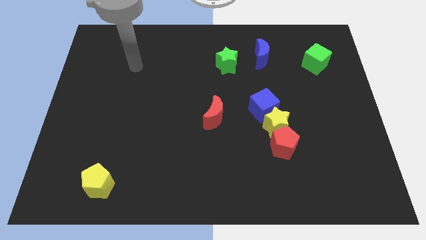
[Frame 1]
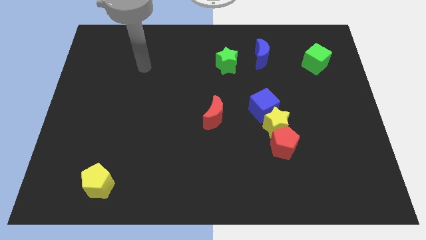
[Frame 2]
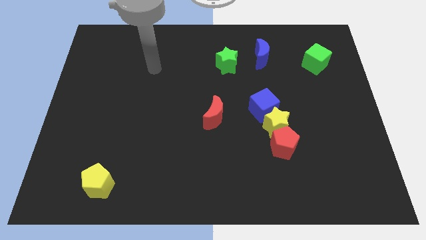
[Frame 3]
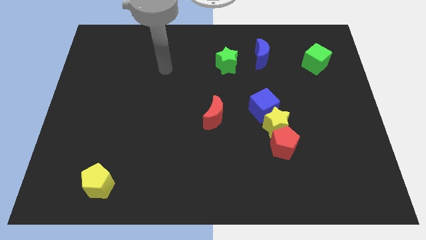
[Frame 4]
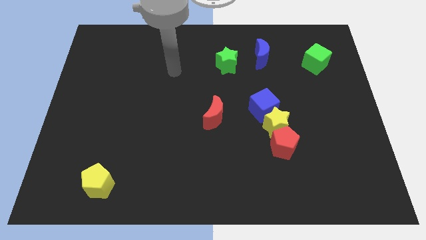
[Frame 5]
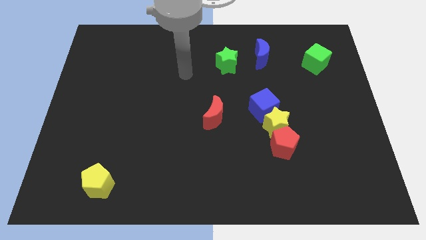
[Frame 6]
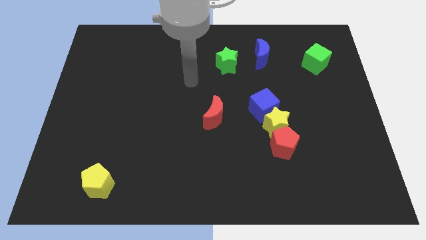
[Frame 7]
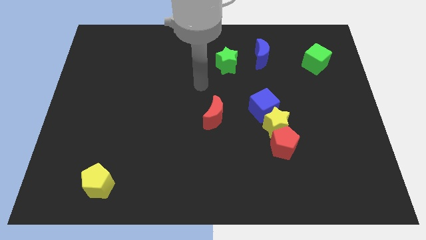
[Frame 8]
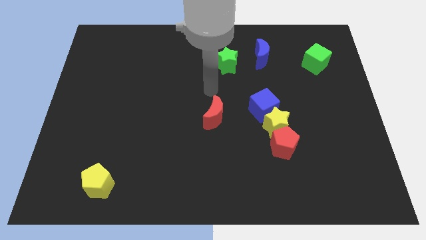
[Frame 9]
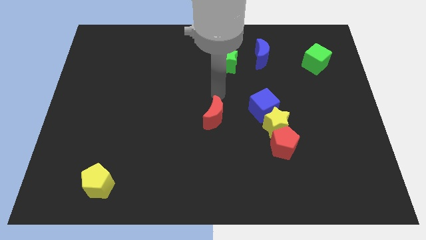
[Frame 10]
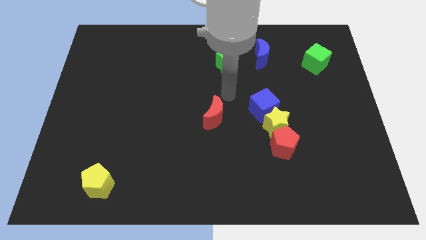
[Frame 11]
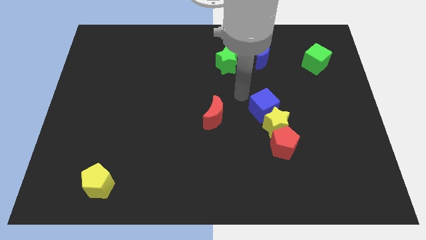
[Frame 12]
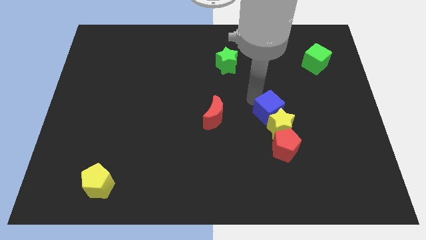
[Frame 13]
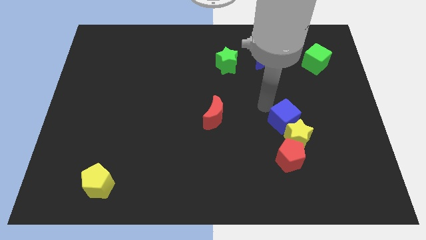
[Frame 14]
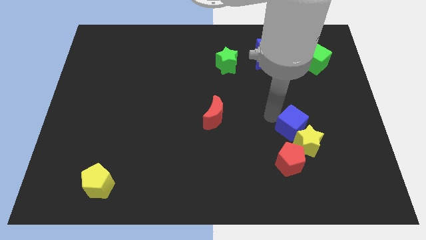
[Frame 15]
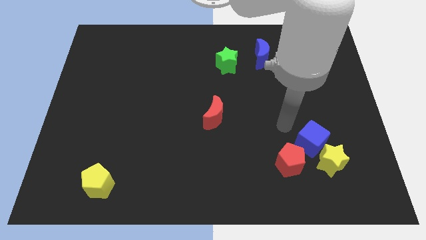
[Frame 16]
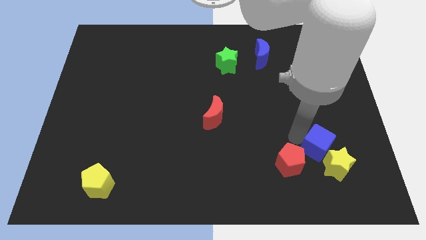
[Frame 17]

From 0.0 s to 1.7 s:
pull the red pentagon apart from the yellow star

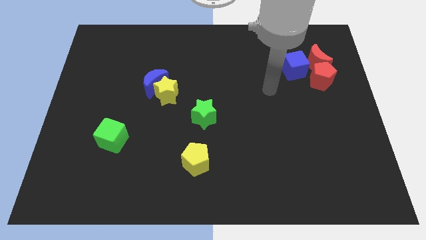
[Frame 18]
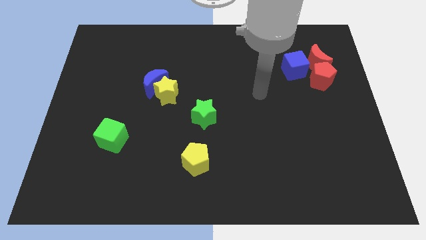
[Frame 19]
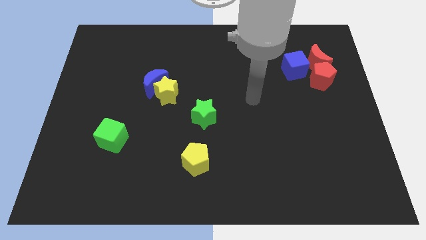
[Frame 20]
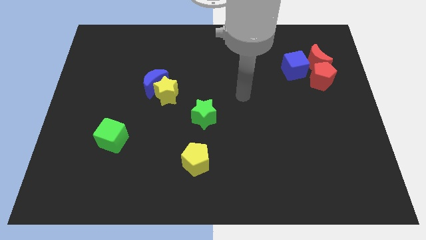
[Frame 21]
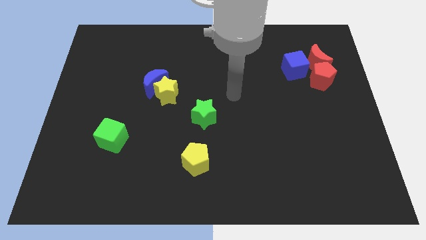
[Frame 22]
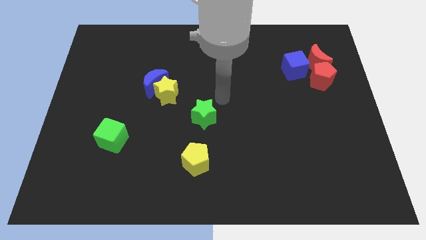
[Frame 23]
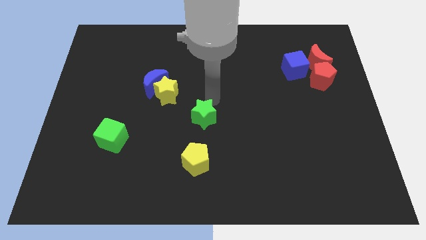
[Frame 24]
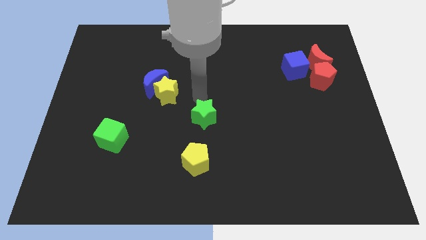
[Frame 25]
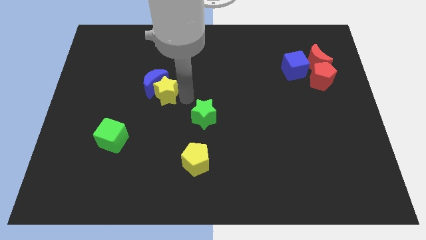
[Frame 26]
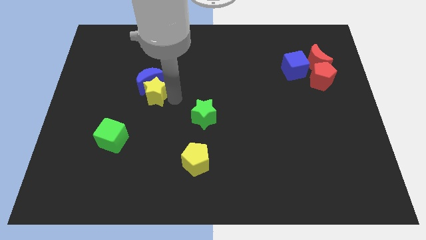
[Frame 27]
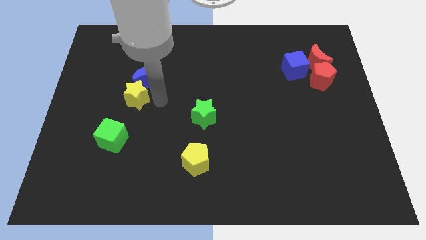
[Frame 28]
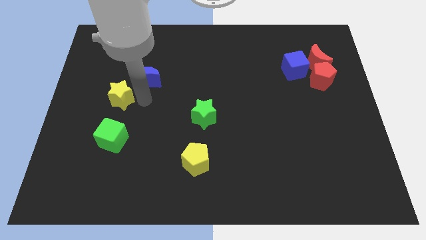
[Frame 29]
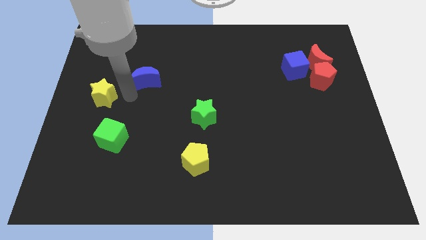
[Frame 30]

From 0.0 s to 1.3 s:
separate the blue moon from the yellow star

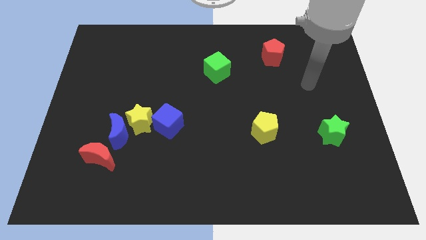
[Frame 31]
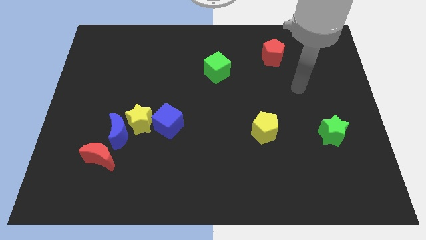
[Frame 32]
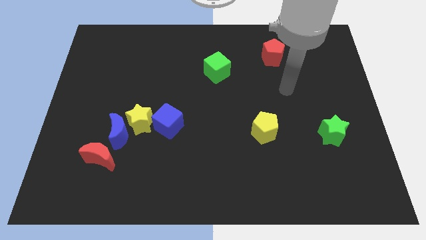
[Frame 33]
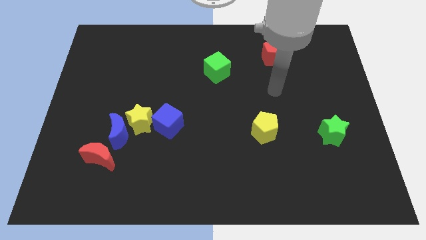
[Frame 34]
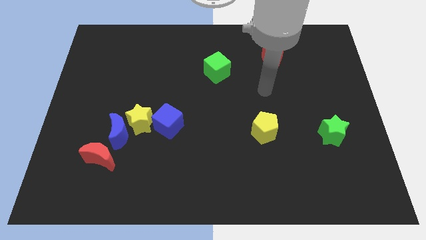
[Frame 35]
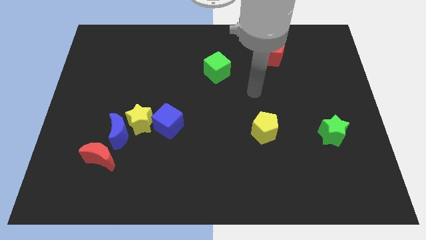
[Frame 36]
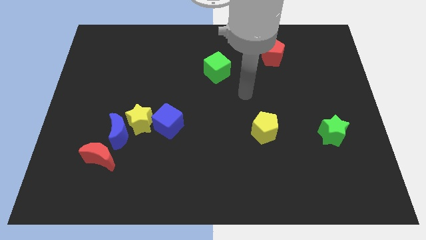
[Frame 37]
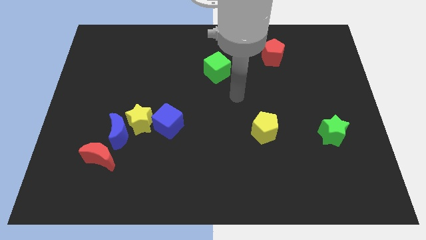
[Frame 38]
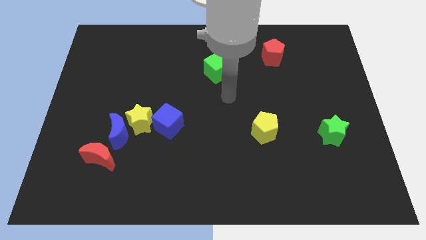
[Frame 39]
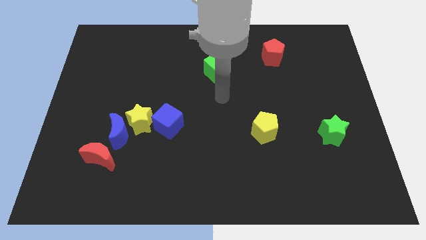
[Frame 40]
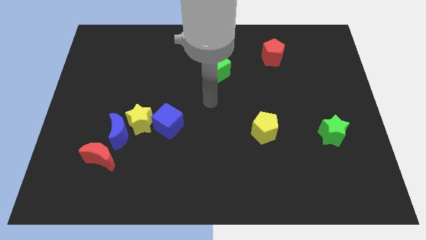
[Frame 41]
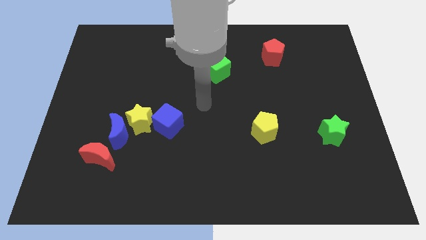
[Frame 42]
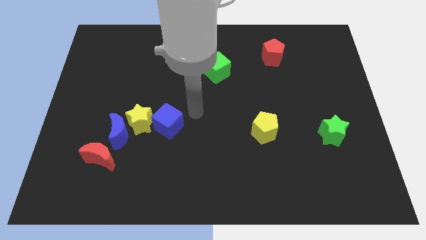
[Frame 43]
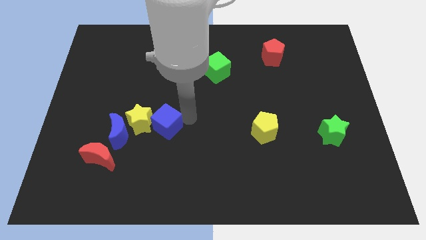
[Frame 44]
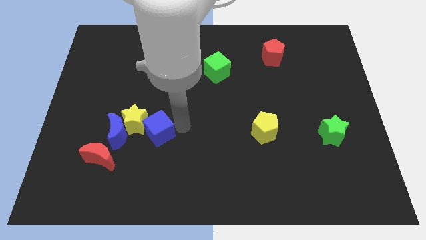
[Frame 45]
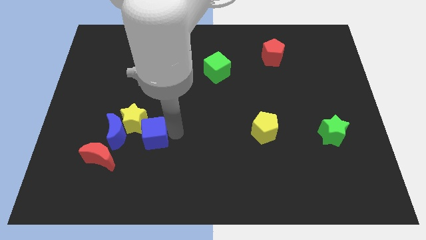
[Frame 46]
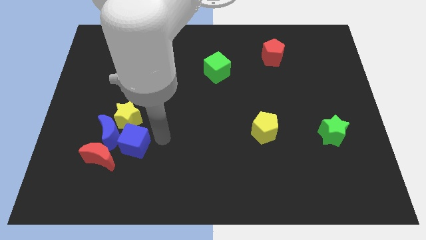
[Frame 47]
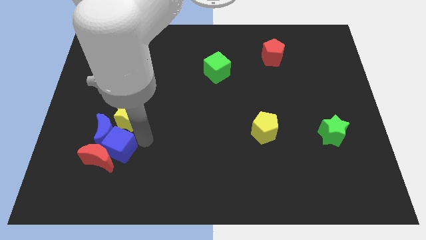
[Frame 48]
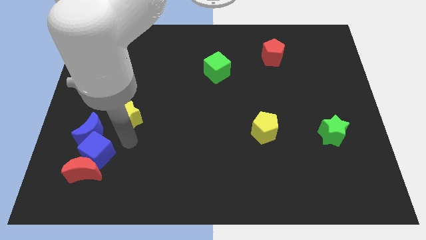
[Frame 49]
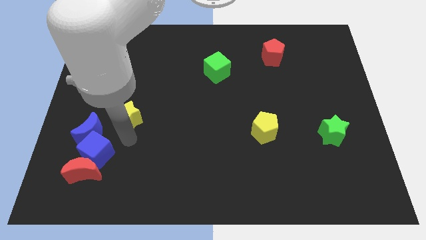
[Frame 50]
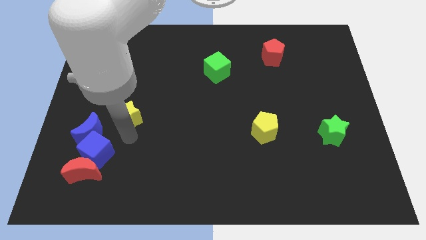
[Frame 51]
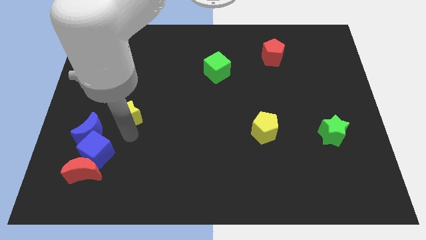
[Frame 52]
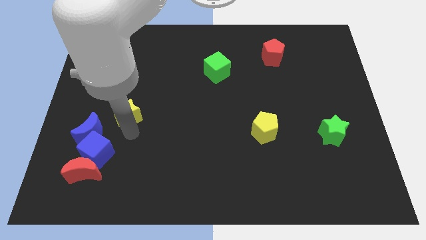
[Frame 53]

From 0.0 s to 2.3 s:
separate the yellow star from the blue moon and blue cube

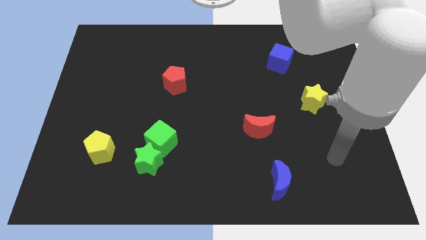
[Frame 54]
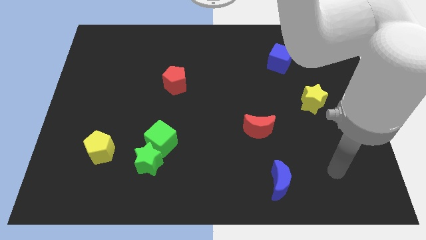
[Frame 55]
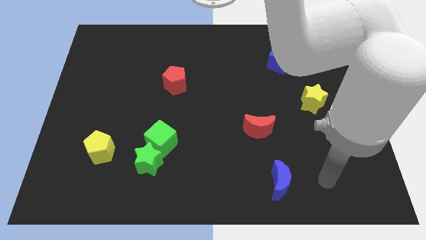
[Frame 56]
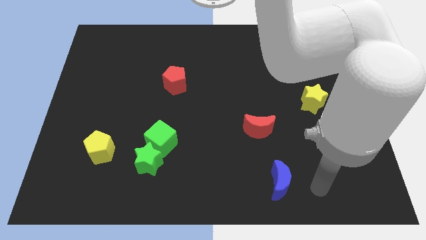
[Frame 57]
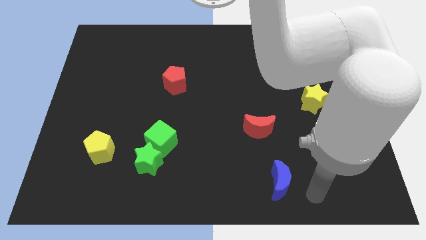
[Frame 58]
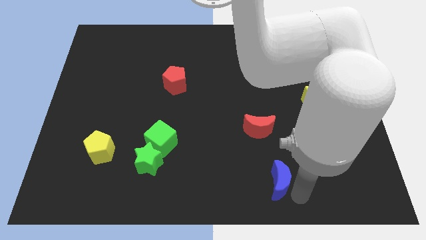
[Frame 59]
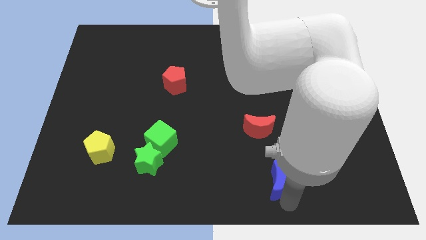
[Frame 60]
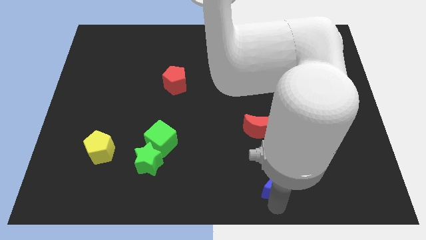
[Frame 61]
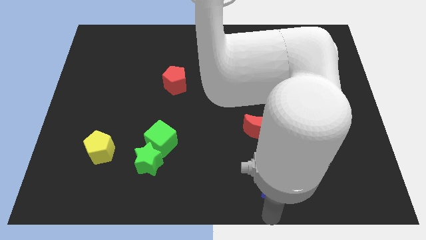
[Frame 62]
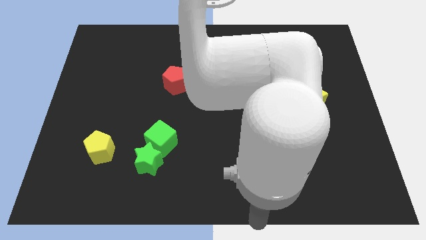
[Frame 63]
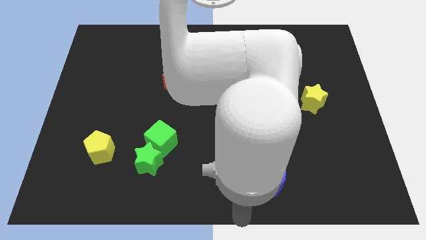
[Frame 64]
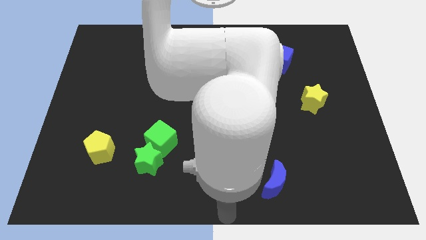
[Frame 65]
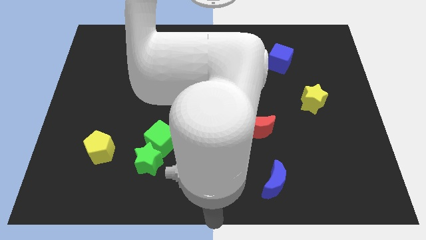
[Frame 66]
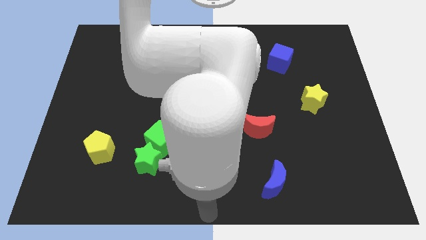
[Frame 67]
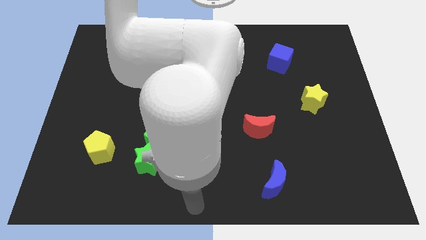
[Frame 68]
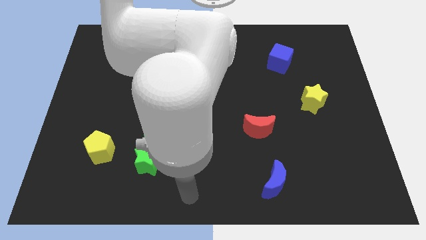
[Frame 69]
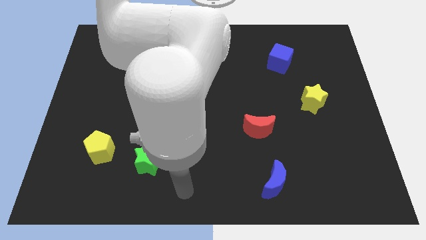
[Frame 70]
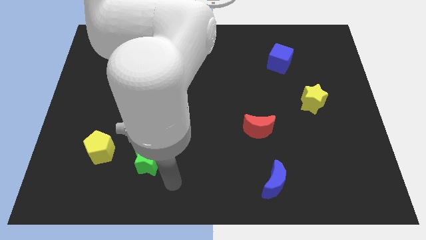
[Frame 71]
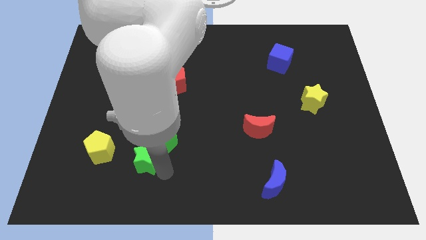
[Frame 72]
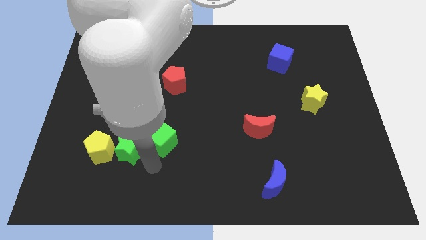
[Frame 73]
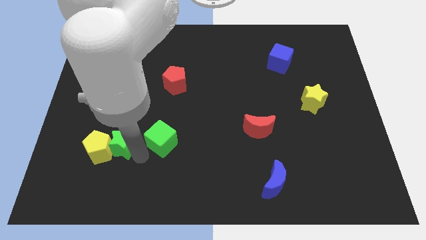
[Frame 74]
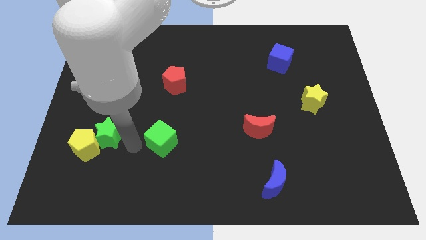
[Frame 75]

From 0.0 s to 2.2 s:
separate the green cube from the green star

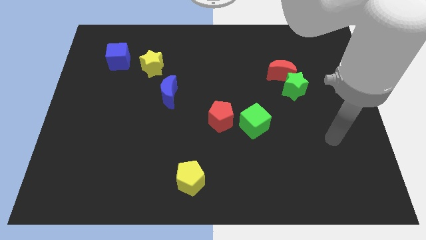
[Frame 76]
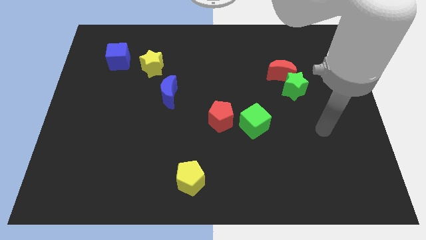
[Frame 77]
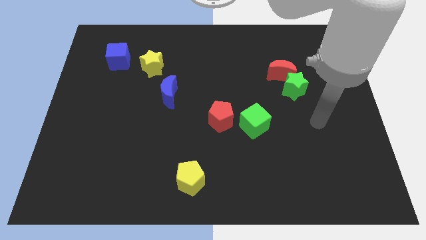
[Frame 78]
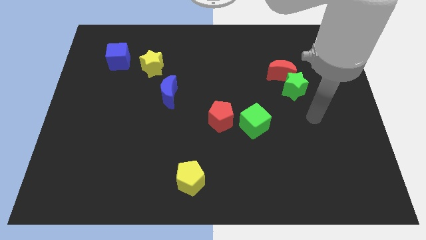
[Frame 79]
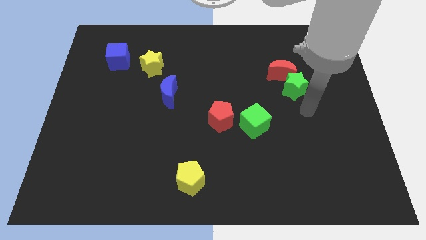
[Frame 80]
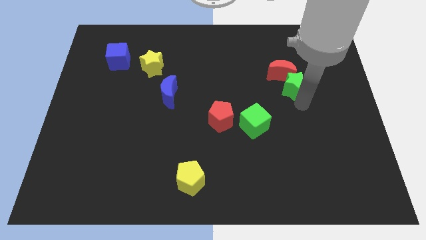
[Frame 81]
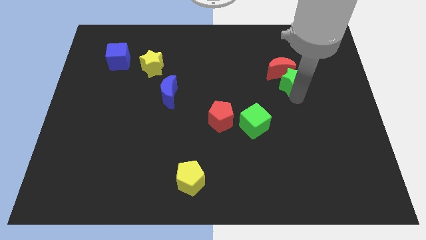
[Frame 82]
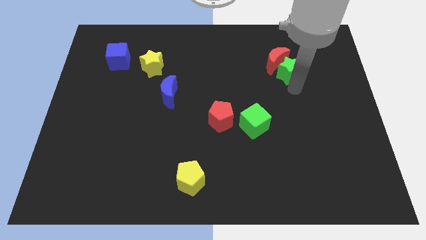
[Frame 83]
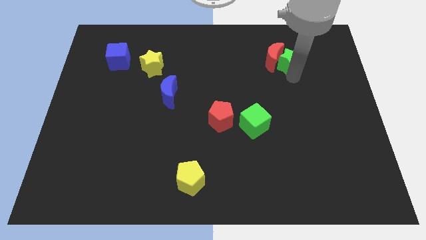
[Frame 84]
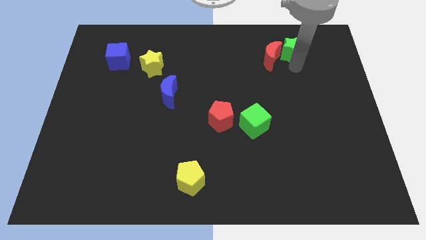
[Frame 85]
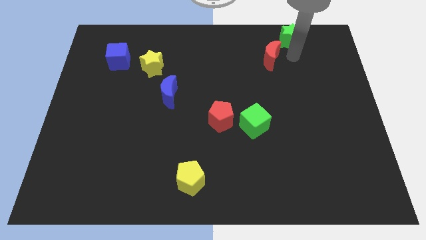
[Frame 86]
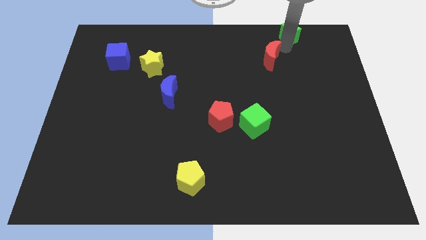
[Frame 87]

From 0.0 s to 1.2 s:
separate the red moon from the green star

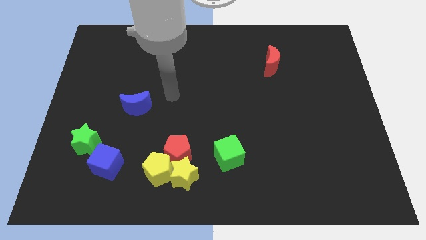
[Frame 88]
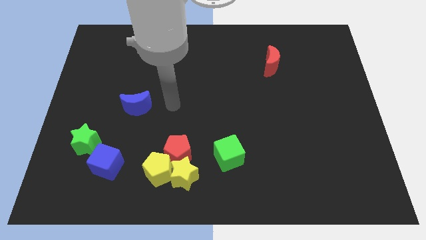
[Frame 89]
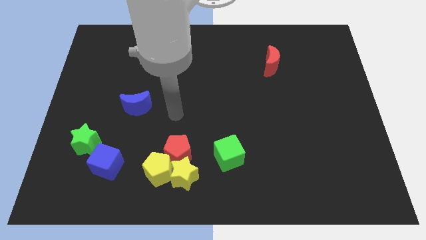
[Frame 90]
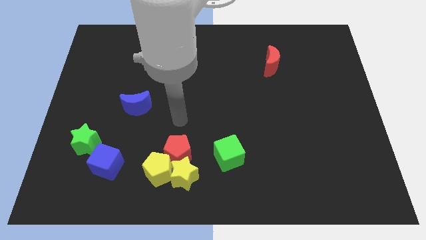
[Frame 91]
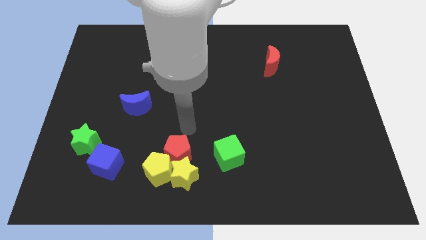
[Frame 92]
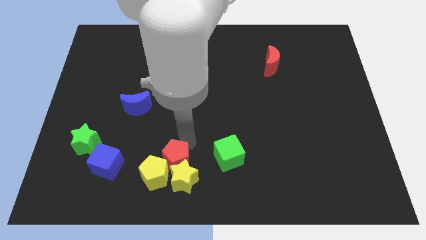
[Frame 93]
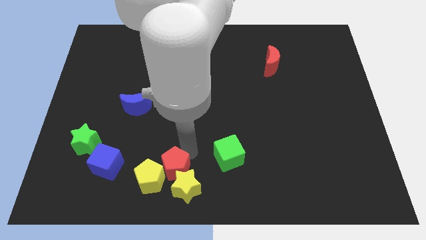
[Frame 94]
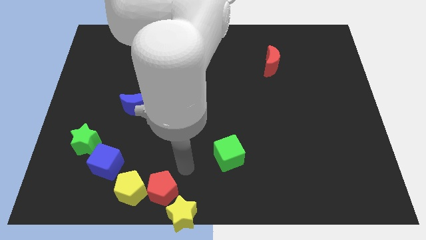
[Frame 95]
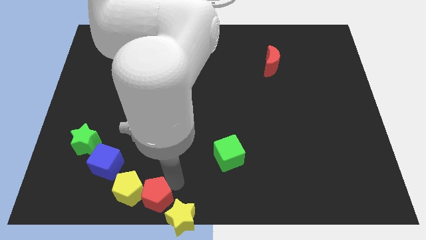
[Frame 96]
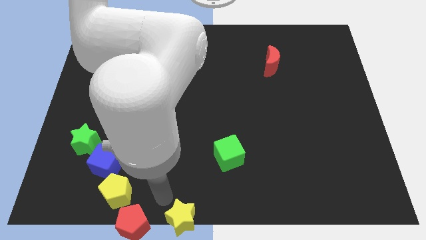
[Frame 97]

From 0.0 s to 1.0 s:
separate the yellow pentagon from the yellow star and red pentagon
